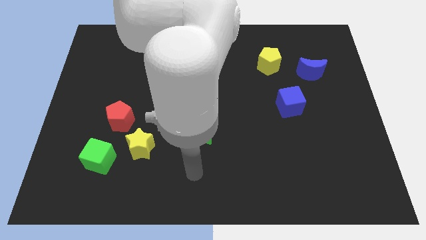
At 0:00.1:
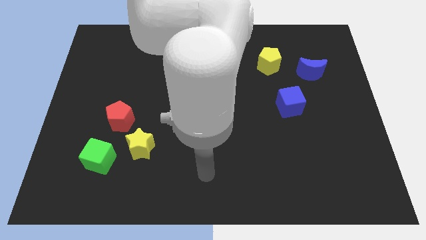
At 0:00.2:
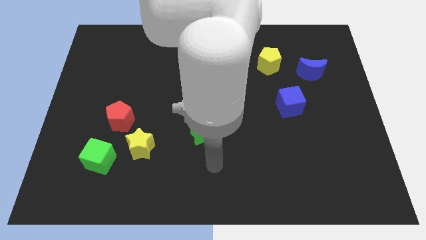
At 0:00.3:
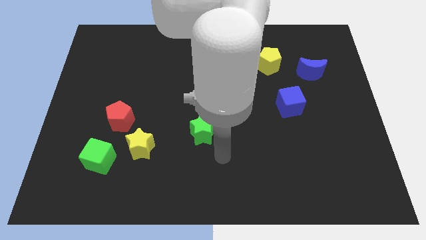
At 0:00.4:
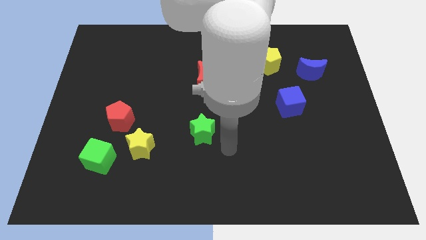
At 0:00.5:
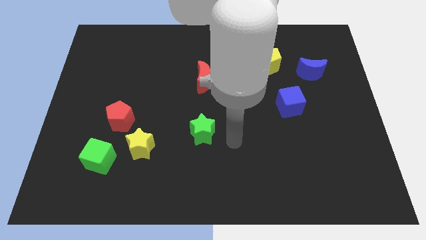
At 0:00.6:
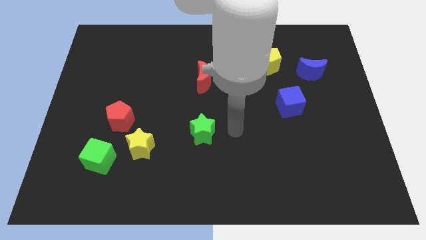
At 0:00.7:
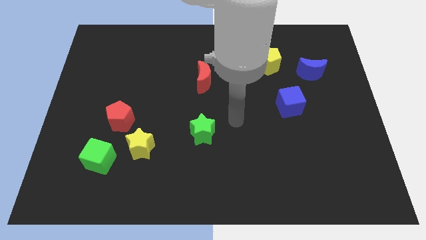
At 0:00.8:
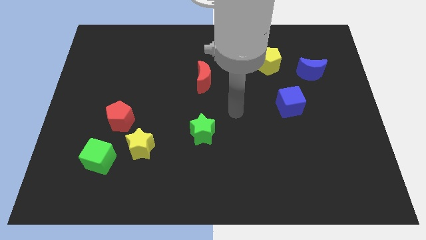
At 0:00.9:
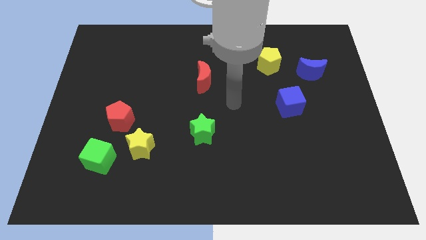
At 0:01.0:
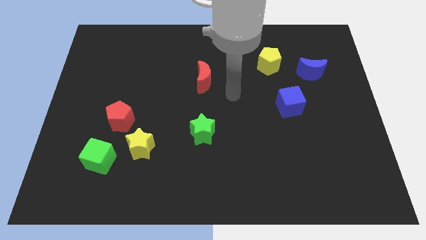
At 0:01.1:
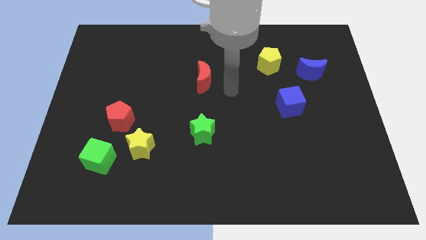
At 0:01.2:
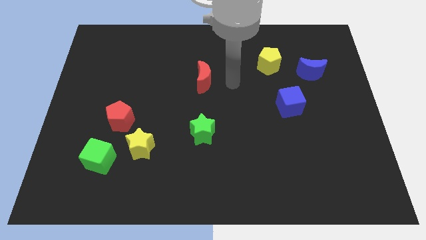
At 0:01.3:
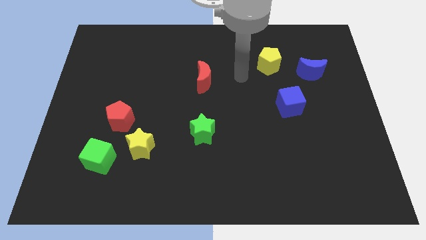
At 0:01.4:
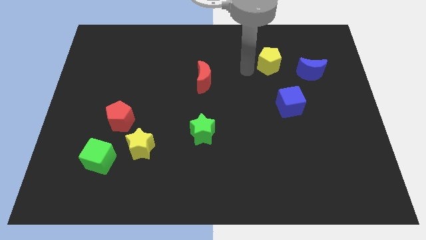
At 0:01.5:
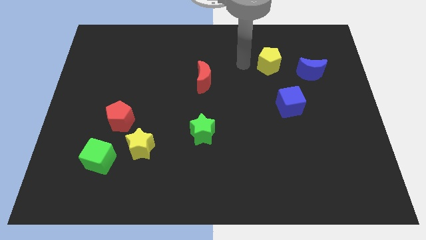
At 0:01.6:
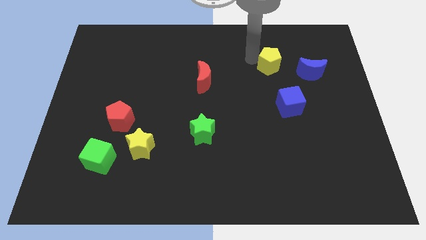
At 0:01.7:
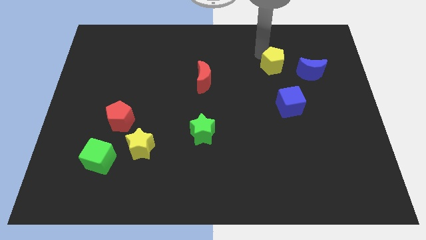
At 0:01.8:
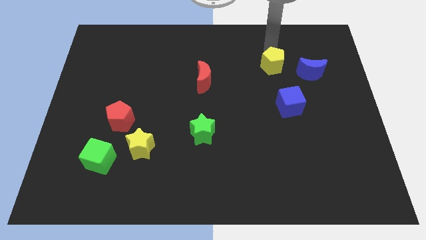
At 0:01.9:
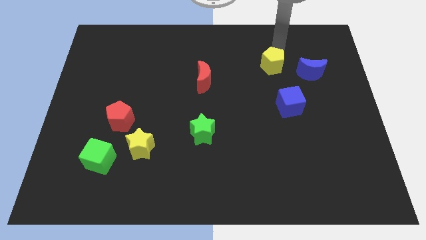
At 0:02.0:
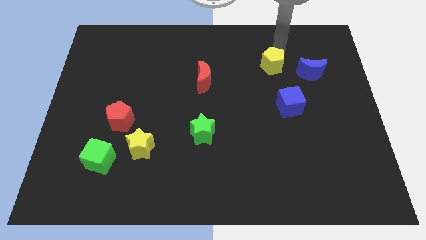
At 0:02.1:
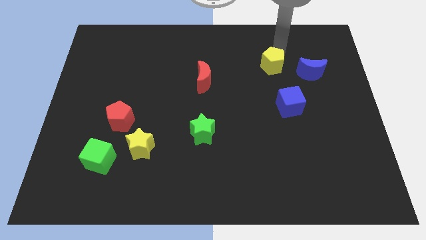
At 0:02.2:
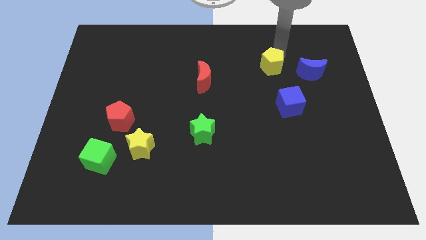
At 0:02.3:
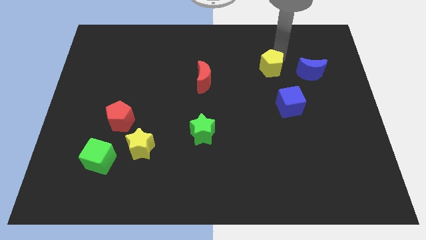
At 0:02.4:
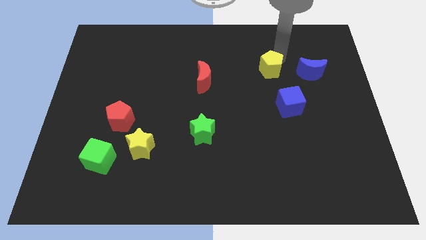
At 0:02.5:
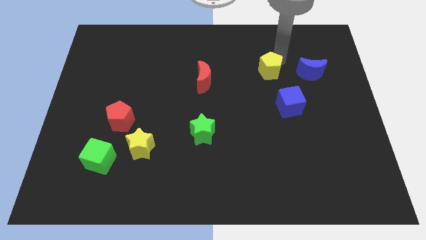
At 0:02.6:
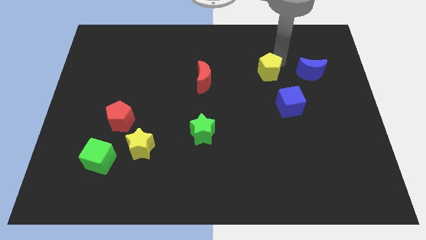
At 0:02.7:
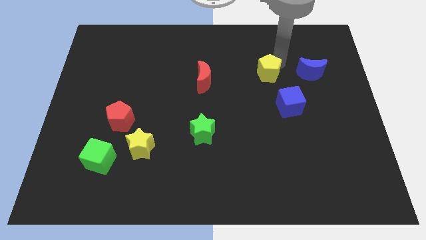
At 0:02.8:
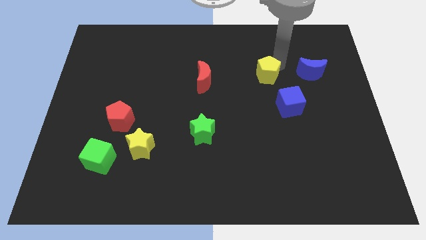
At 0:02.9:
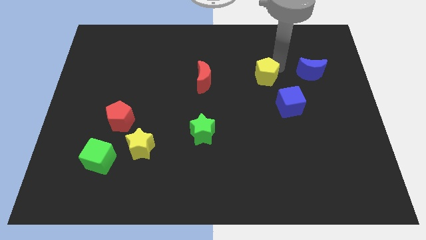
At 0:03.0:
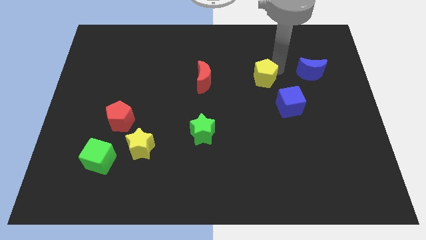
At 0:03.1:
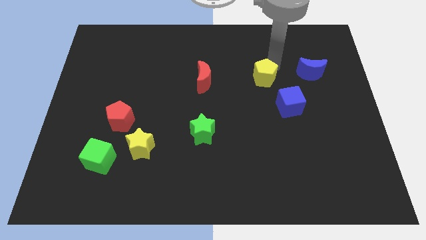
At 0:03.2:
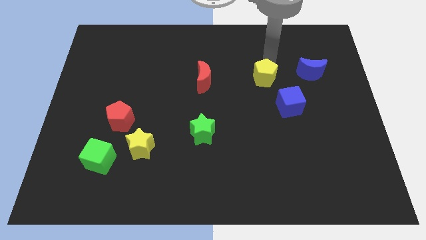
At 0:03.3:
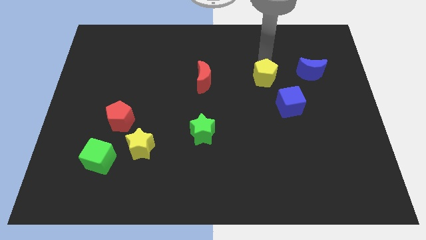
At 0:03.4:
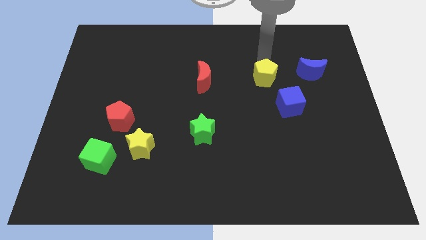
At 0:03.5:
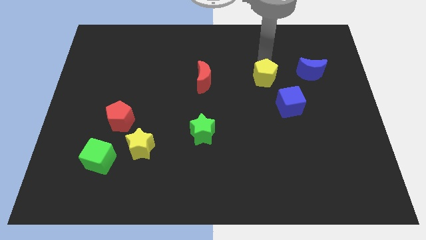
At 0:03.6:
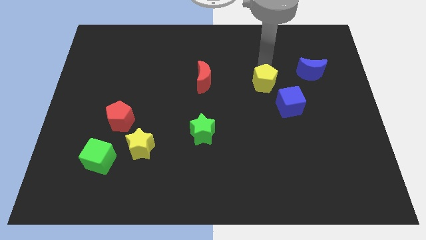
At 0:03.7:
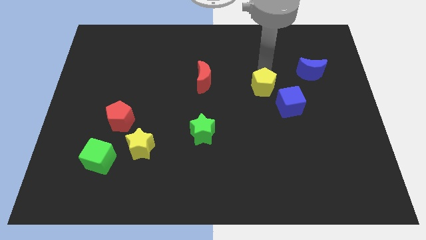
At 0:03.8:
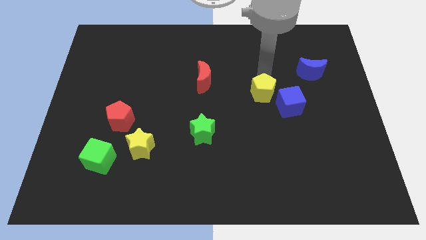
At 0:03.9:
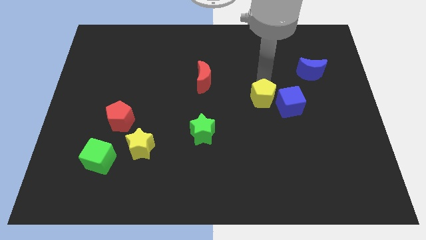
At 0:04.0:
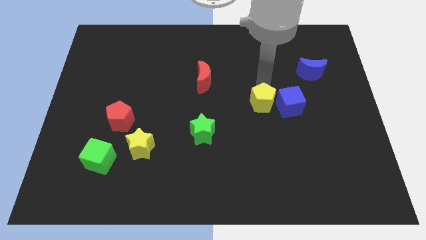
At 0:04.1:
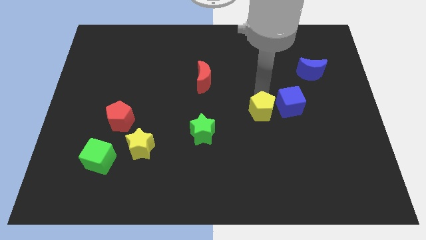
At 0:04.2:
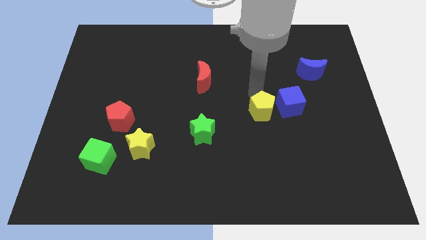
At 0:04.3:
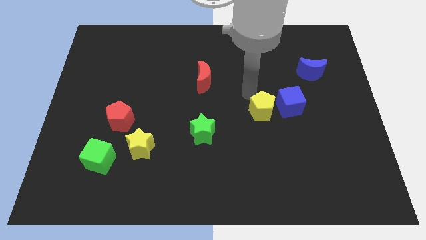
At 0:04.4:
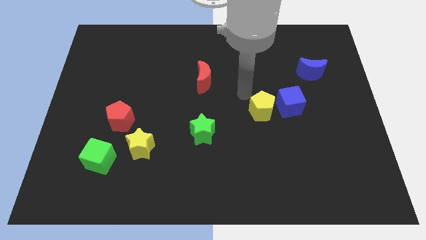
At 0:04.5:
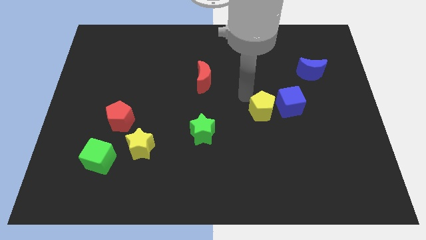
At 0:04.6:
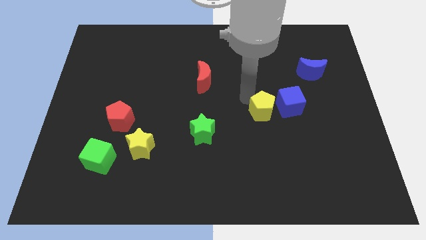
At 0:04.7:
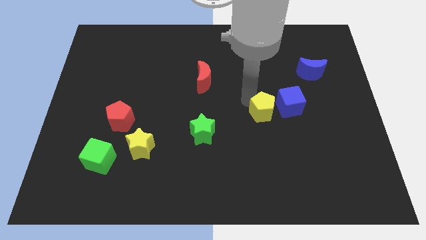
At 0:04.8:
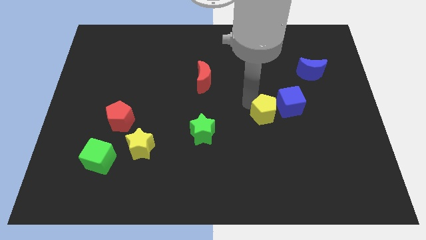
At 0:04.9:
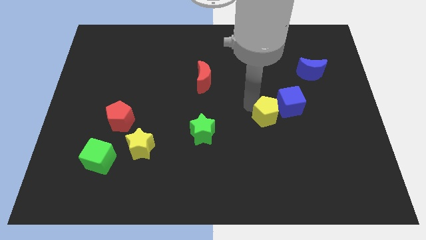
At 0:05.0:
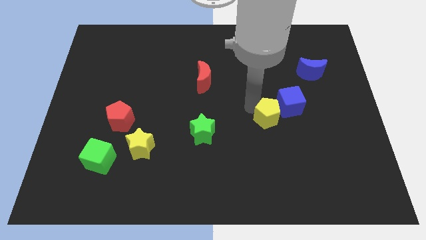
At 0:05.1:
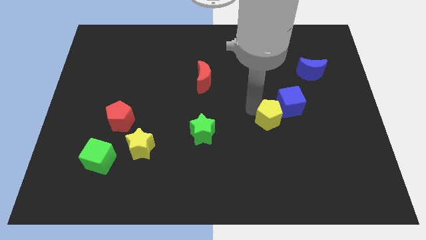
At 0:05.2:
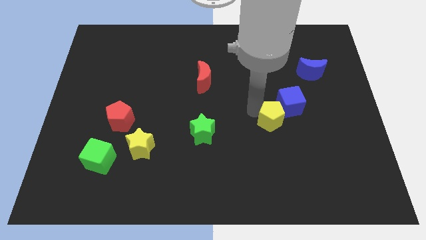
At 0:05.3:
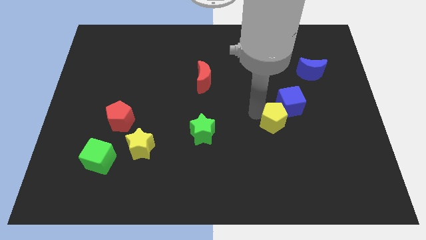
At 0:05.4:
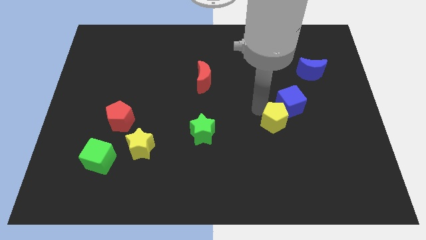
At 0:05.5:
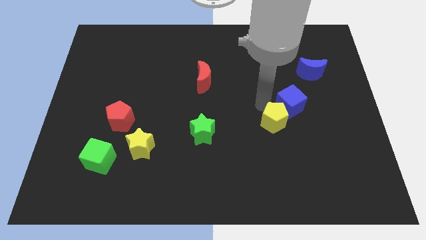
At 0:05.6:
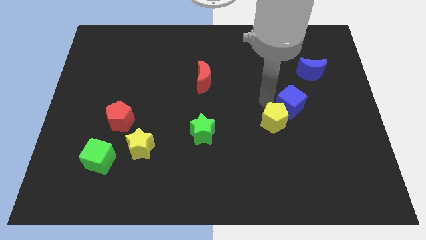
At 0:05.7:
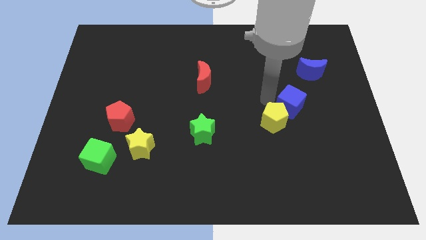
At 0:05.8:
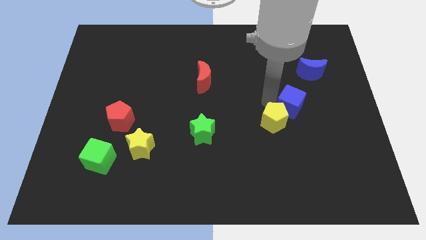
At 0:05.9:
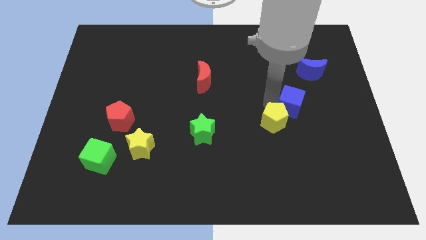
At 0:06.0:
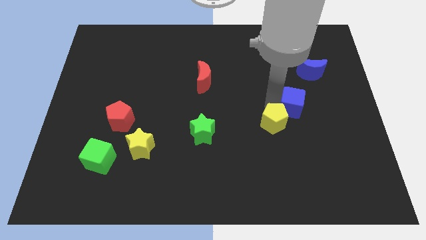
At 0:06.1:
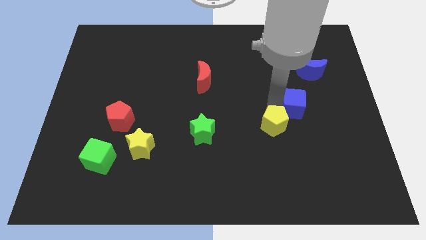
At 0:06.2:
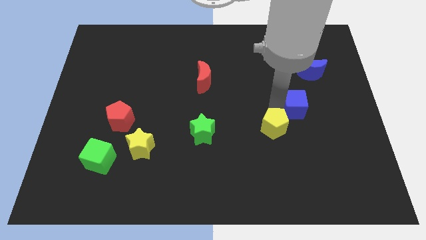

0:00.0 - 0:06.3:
slide the yellow pentagon down

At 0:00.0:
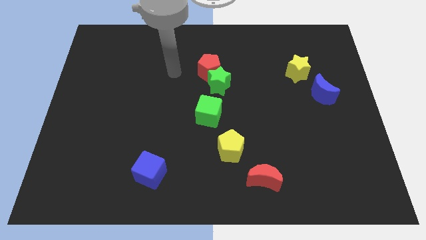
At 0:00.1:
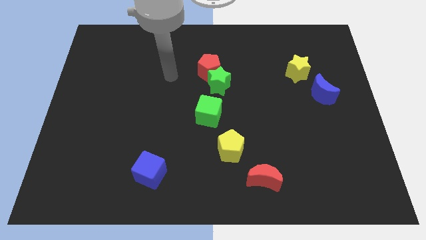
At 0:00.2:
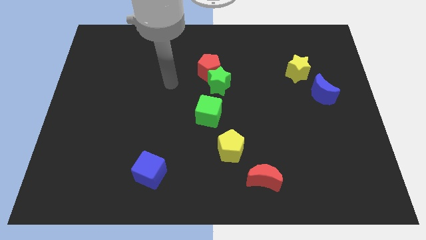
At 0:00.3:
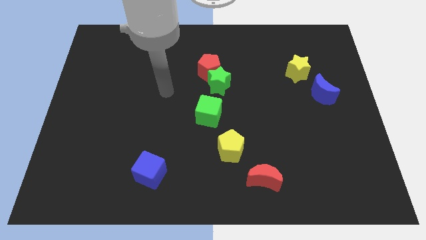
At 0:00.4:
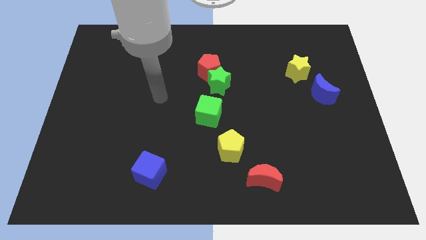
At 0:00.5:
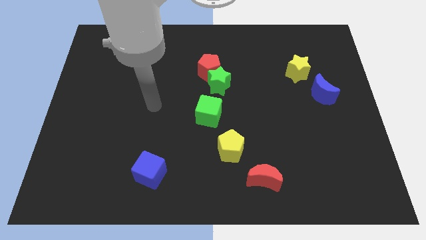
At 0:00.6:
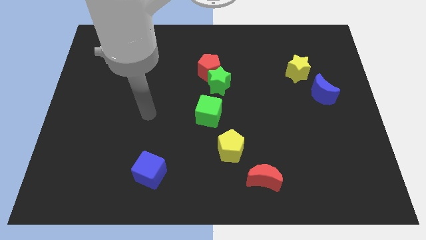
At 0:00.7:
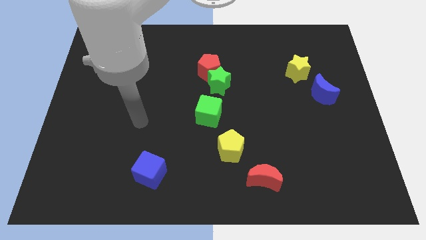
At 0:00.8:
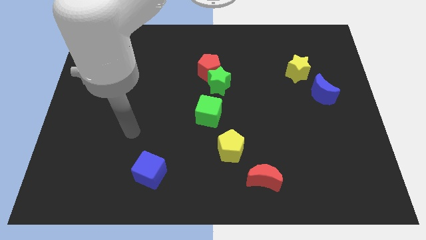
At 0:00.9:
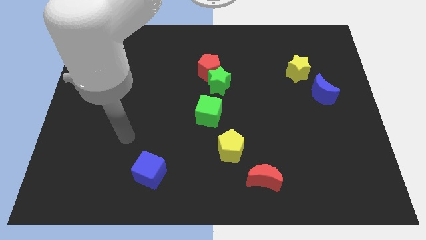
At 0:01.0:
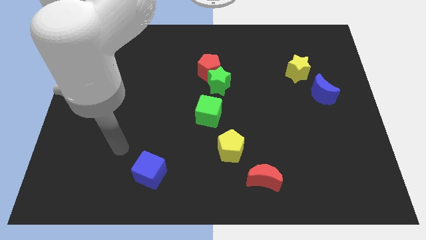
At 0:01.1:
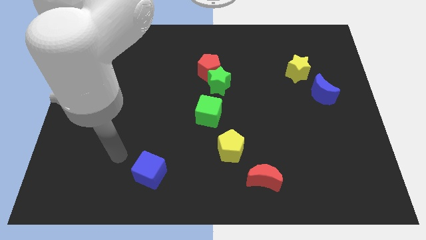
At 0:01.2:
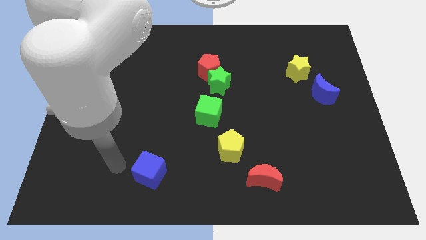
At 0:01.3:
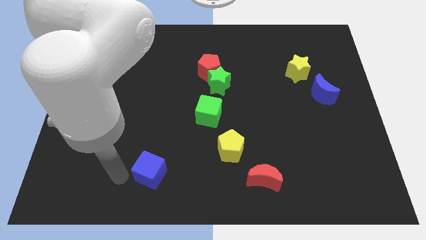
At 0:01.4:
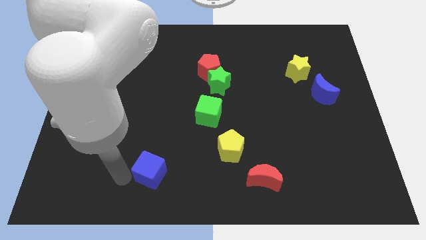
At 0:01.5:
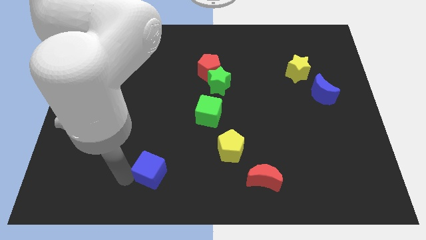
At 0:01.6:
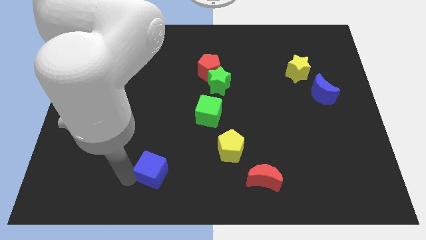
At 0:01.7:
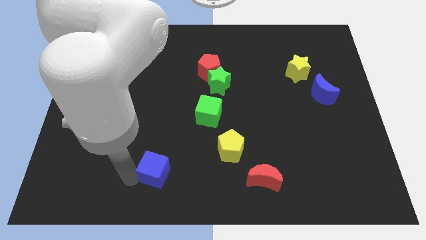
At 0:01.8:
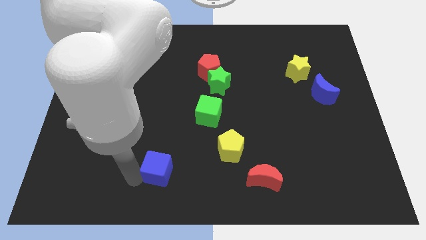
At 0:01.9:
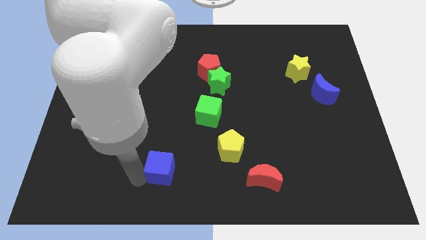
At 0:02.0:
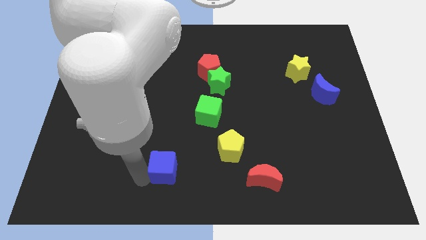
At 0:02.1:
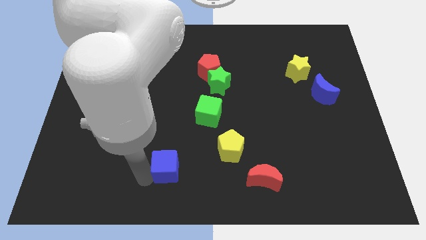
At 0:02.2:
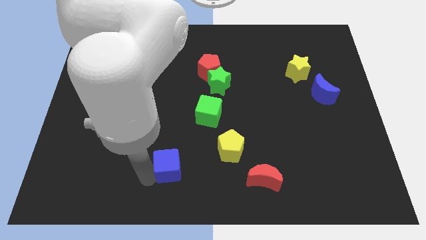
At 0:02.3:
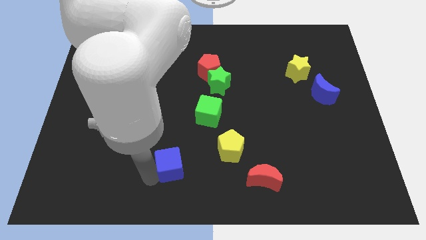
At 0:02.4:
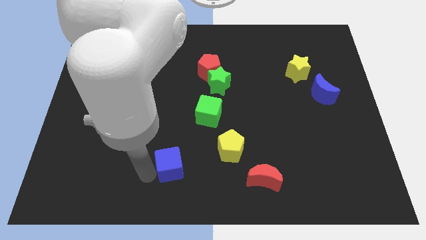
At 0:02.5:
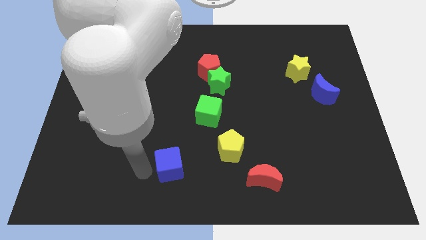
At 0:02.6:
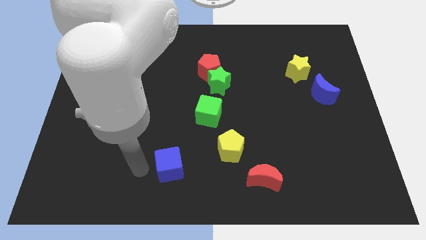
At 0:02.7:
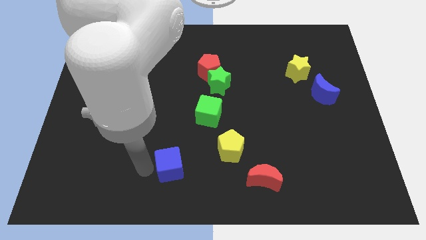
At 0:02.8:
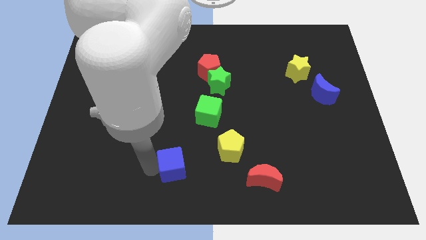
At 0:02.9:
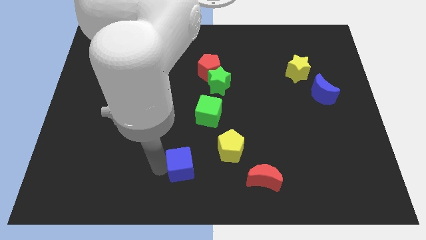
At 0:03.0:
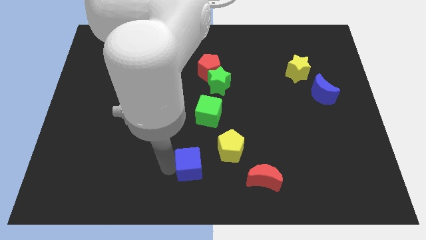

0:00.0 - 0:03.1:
push the blue cube to the right slightly
